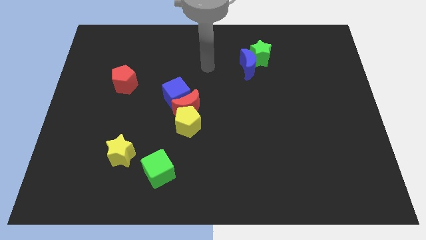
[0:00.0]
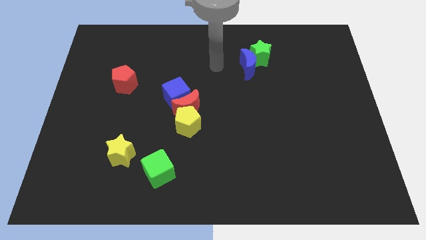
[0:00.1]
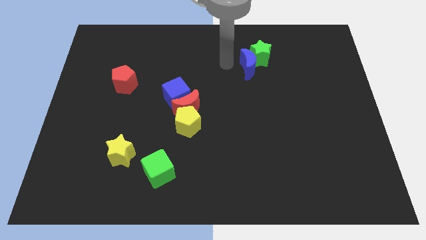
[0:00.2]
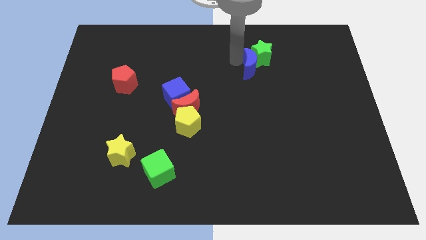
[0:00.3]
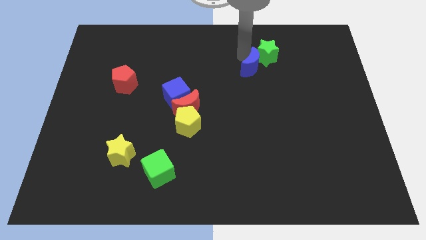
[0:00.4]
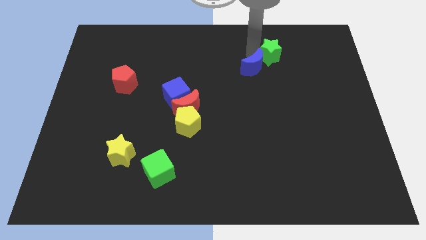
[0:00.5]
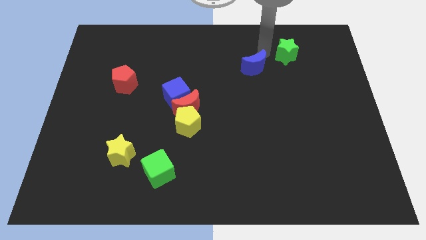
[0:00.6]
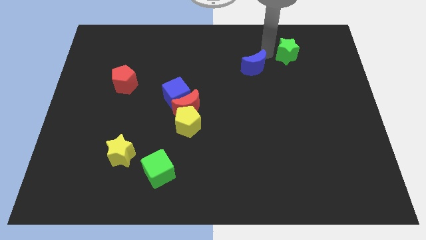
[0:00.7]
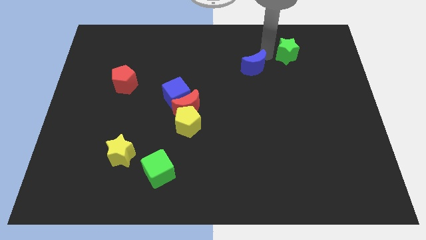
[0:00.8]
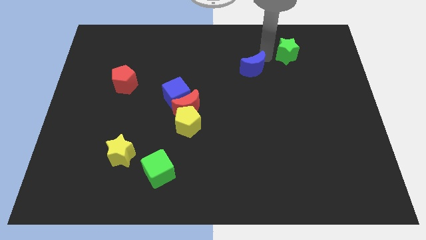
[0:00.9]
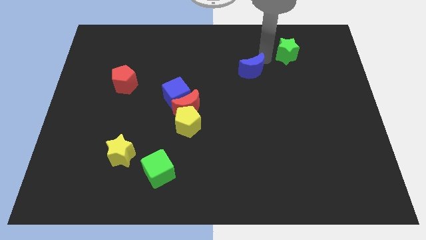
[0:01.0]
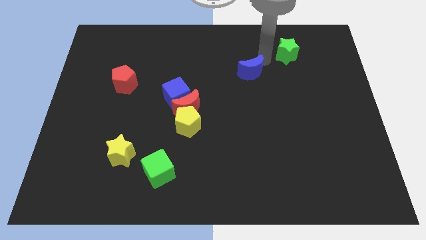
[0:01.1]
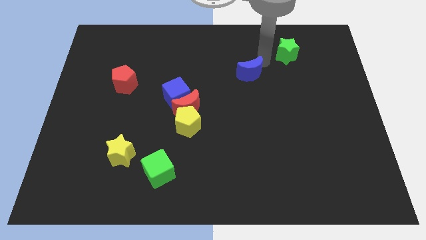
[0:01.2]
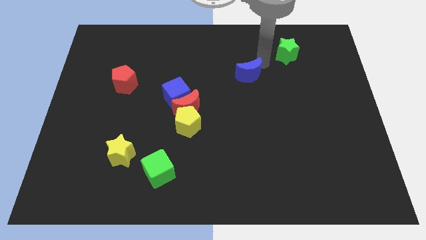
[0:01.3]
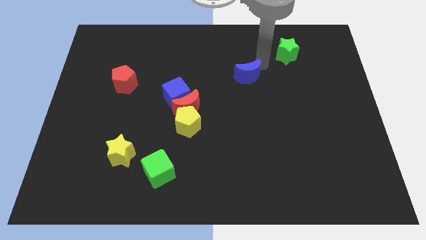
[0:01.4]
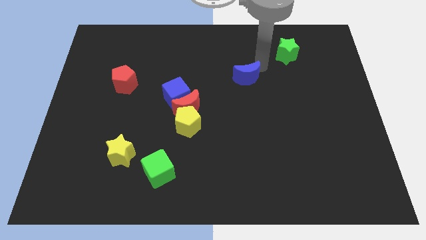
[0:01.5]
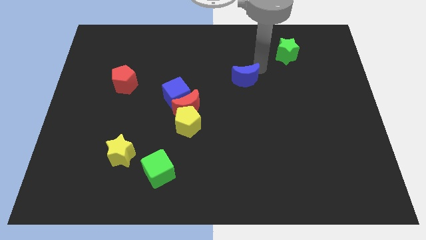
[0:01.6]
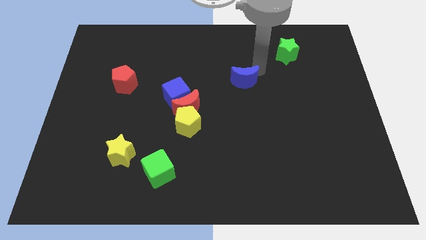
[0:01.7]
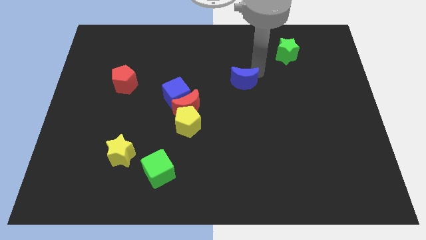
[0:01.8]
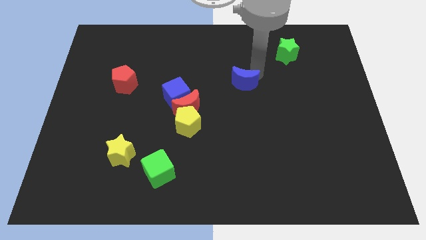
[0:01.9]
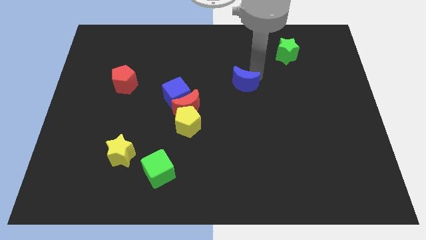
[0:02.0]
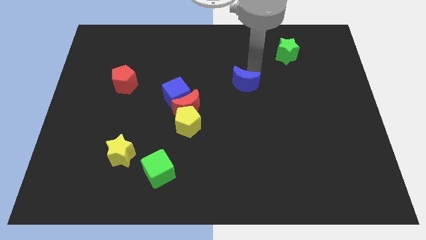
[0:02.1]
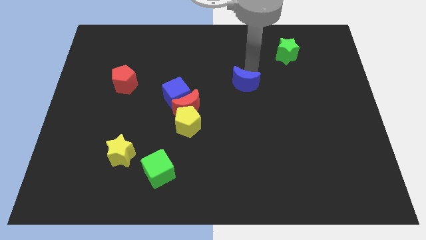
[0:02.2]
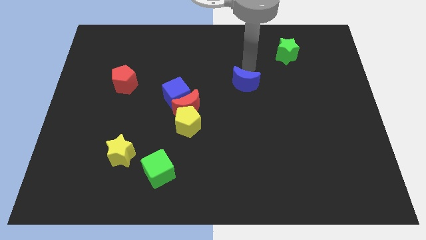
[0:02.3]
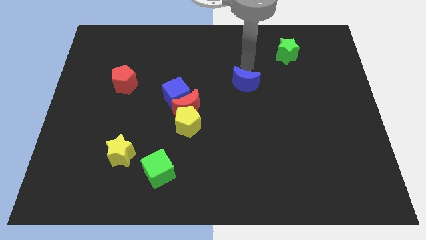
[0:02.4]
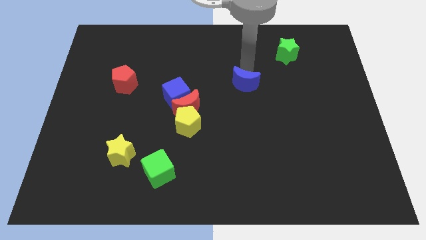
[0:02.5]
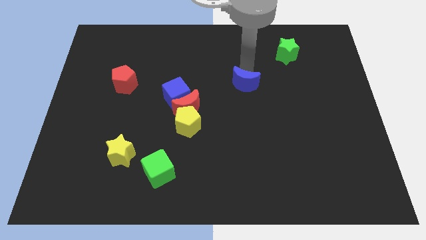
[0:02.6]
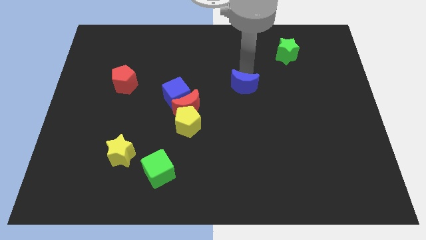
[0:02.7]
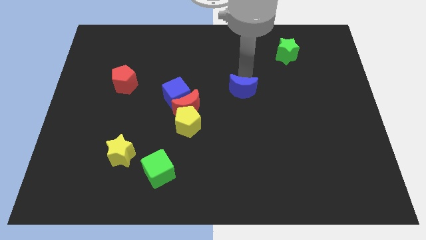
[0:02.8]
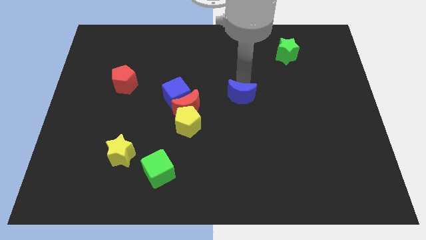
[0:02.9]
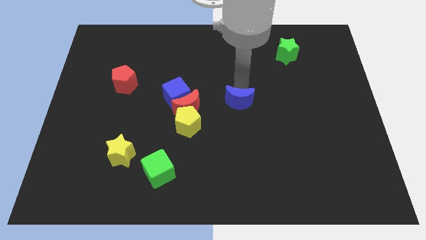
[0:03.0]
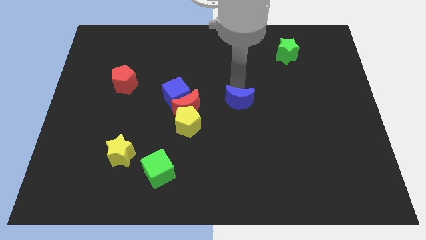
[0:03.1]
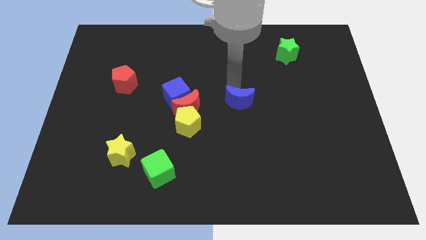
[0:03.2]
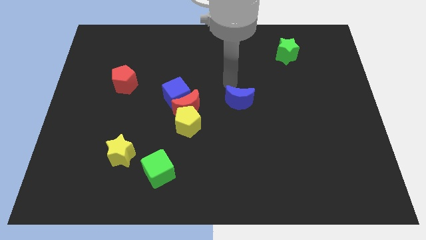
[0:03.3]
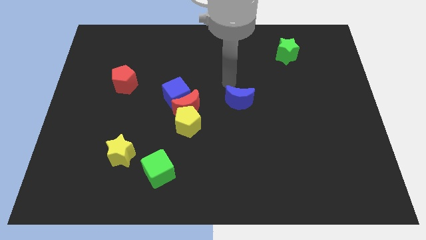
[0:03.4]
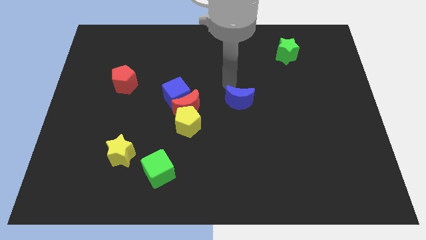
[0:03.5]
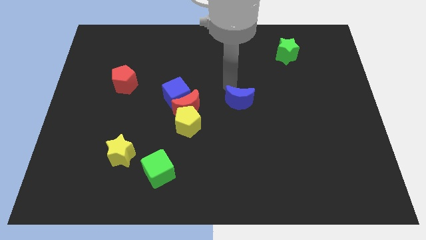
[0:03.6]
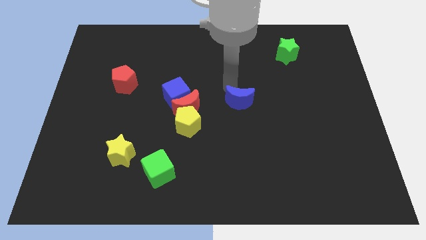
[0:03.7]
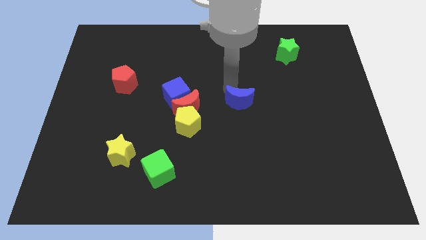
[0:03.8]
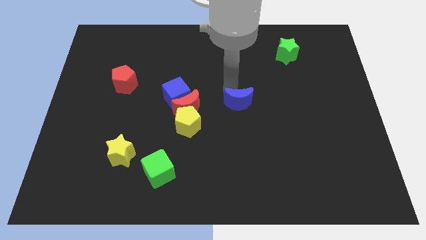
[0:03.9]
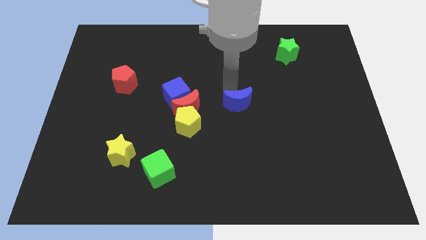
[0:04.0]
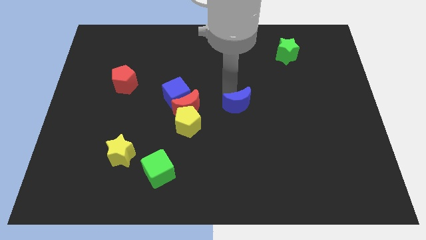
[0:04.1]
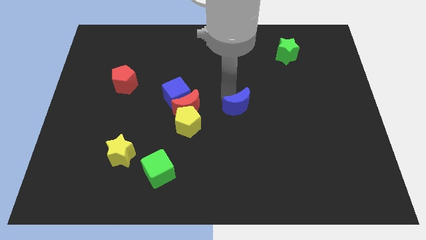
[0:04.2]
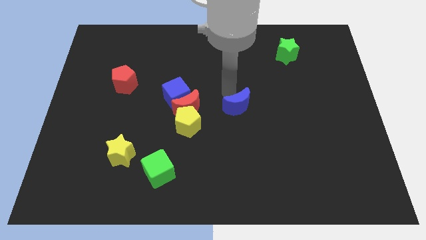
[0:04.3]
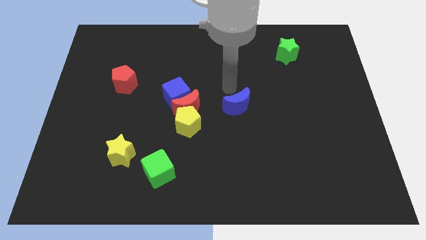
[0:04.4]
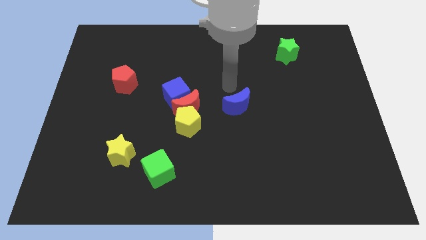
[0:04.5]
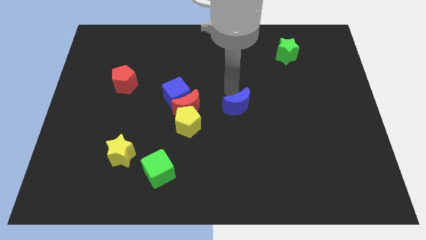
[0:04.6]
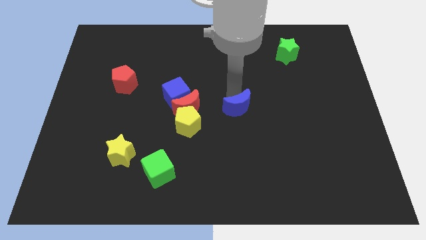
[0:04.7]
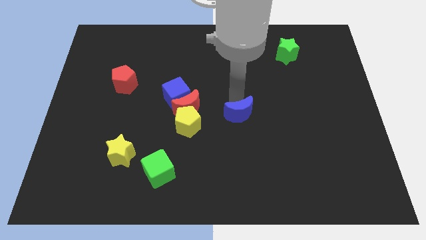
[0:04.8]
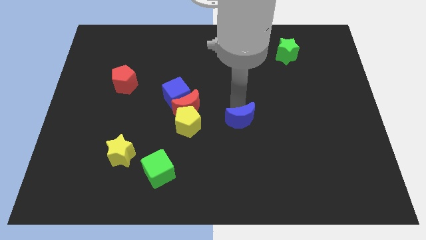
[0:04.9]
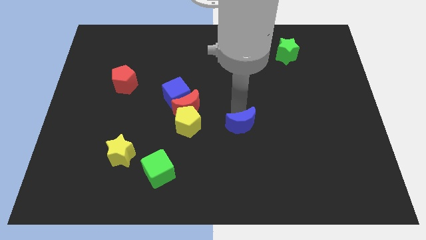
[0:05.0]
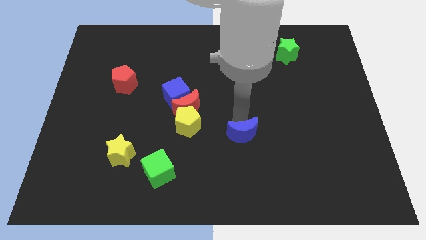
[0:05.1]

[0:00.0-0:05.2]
slide the blue moon down

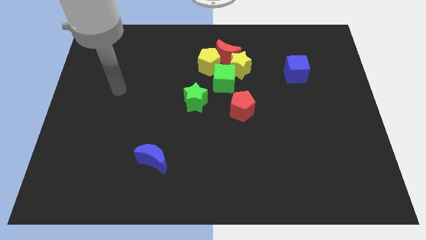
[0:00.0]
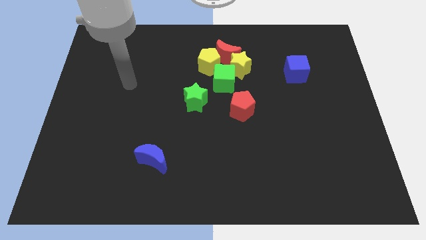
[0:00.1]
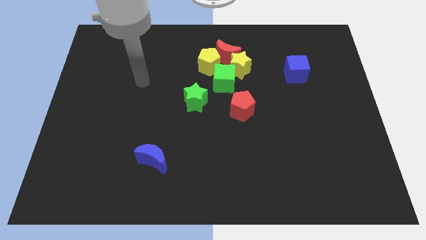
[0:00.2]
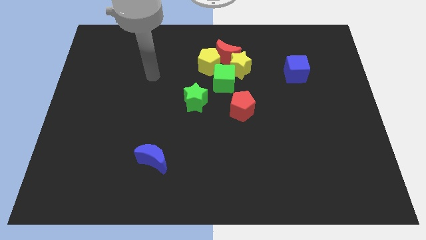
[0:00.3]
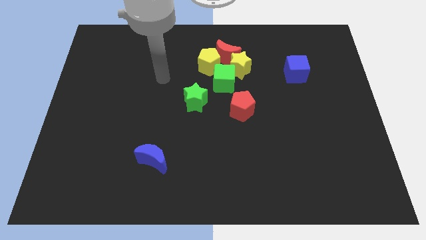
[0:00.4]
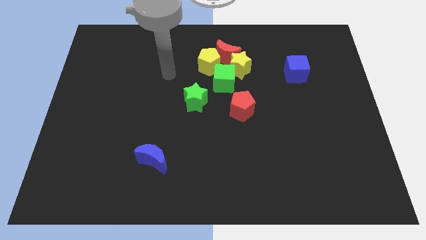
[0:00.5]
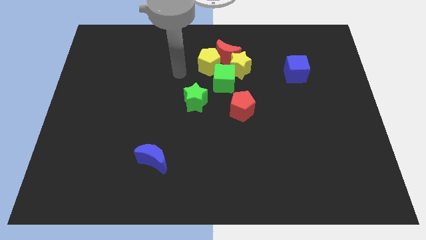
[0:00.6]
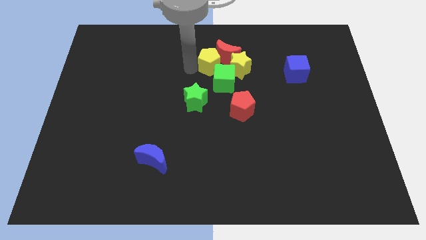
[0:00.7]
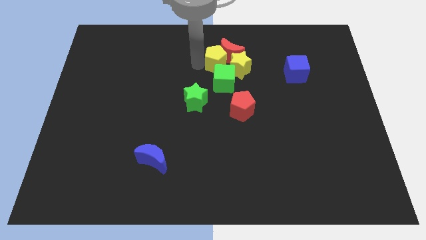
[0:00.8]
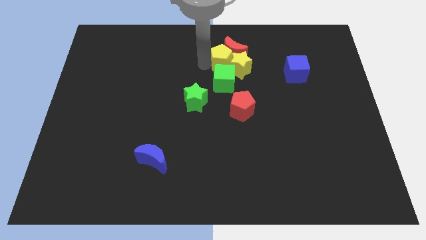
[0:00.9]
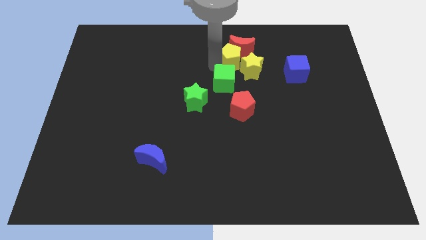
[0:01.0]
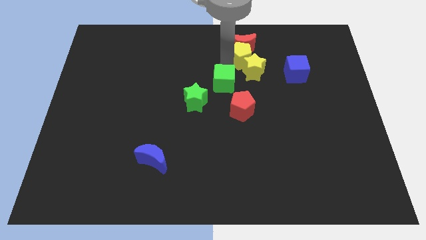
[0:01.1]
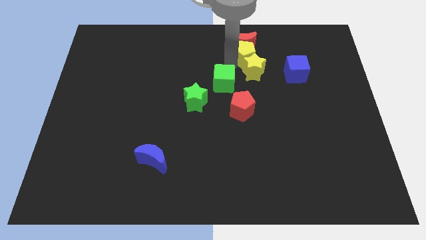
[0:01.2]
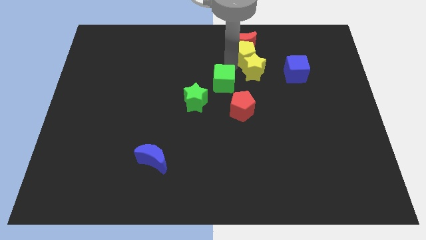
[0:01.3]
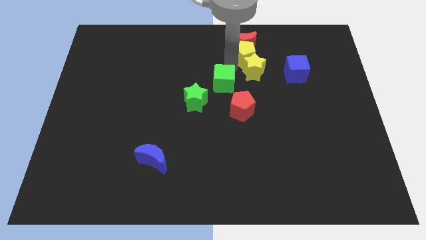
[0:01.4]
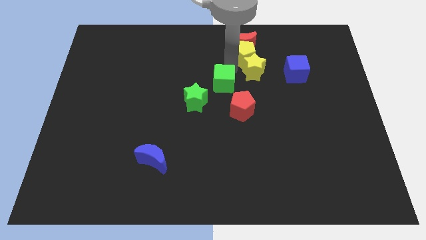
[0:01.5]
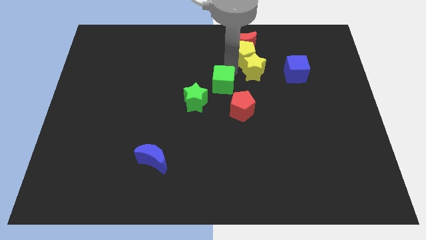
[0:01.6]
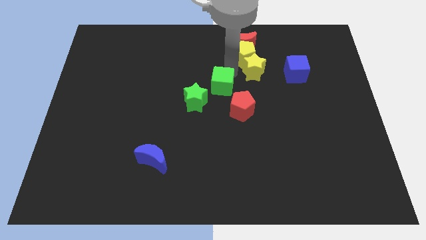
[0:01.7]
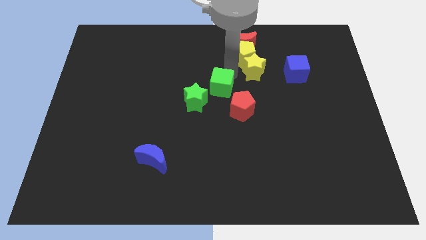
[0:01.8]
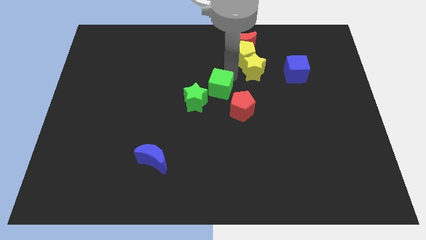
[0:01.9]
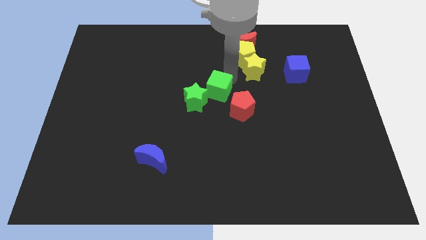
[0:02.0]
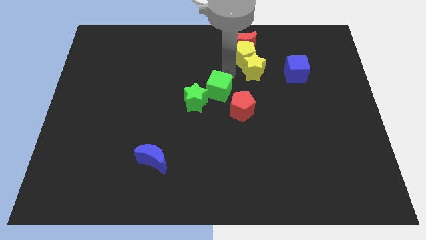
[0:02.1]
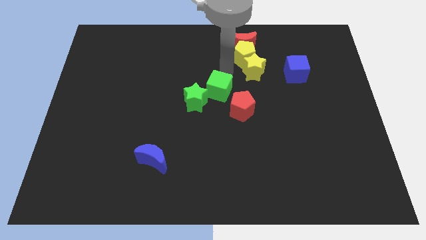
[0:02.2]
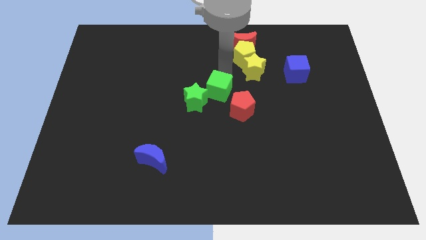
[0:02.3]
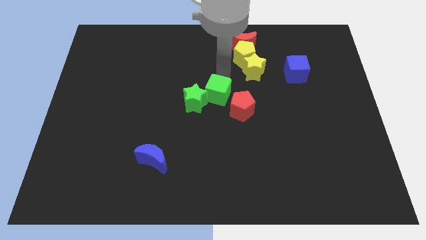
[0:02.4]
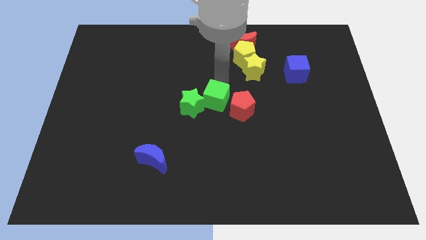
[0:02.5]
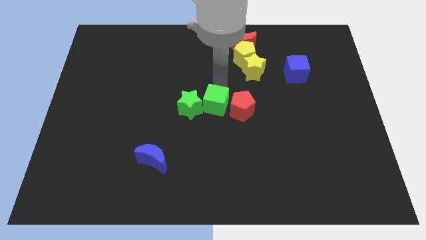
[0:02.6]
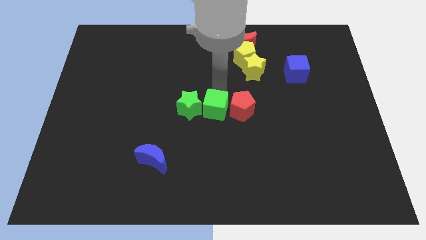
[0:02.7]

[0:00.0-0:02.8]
slide the green cube a little diagonally down and left

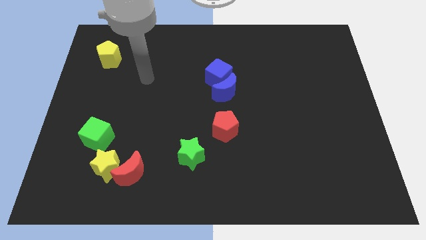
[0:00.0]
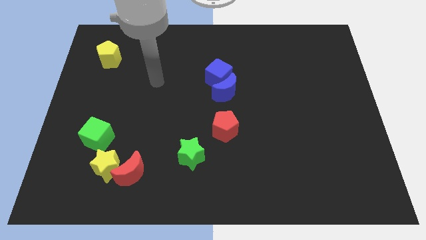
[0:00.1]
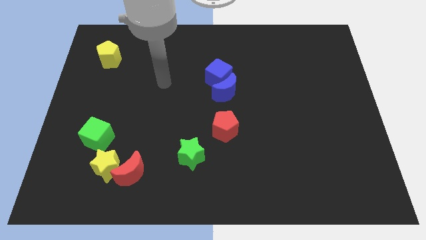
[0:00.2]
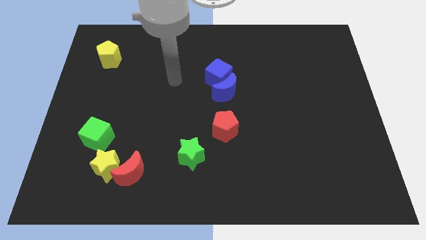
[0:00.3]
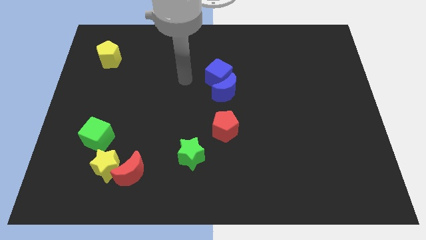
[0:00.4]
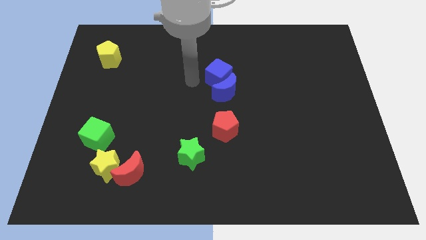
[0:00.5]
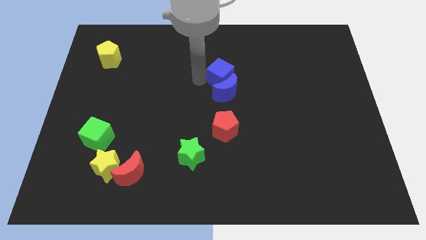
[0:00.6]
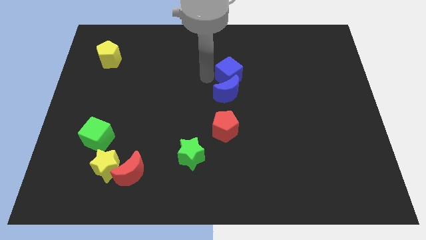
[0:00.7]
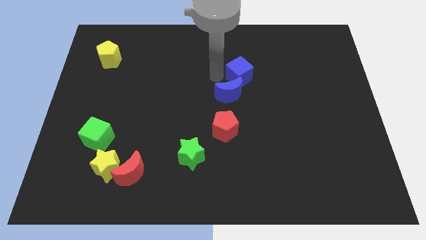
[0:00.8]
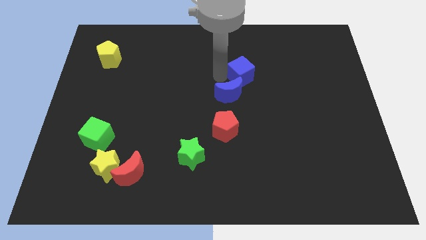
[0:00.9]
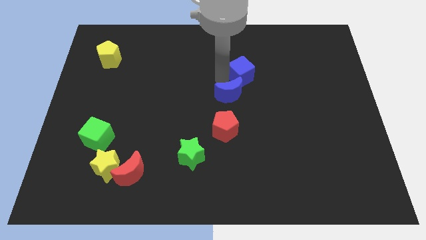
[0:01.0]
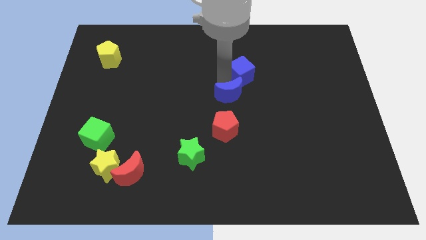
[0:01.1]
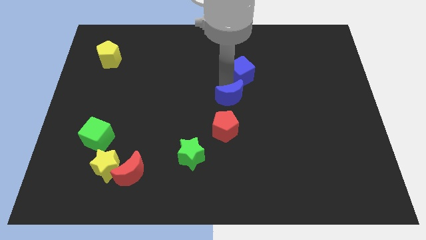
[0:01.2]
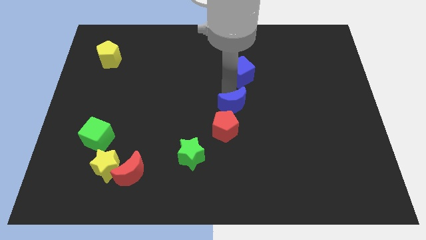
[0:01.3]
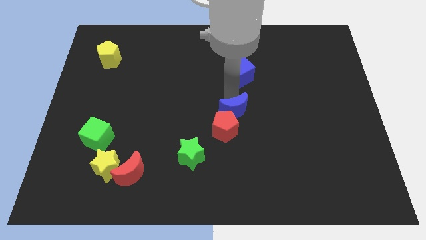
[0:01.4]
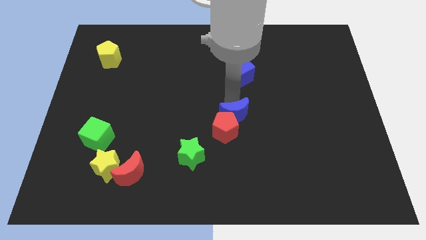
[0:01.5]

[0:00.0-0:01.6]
push the blue moon somewhat down
